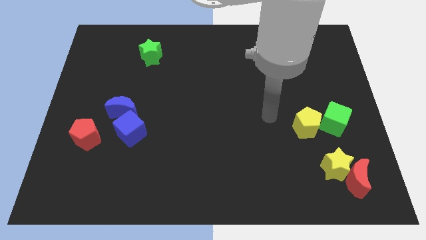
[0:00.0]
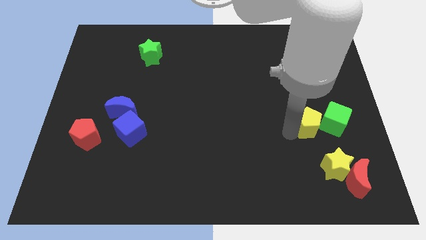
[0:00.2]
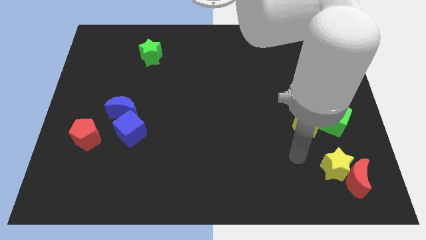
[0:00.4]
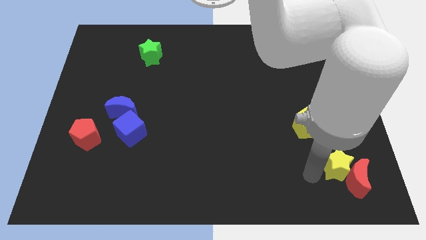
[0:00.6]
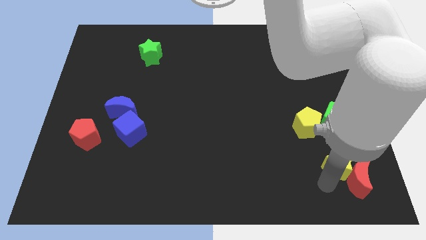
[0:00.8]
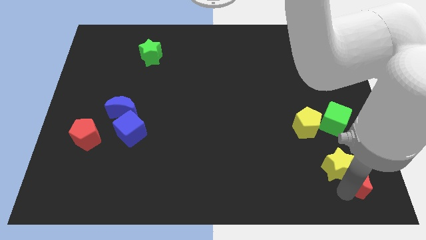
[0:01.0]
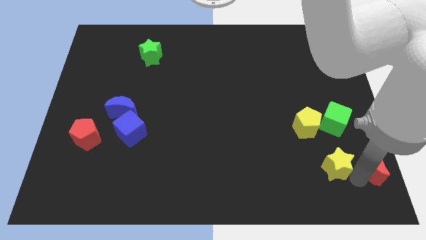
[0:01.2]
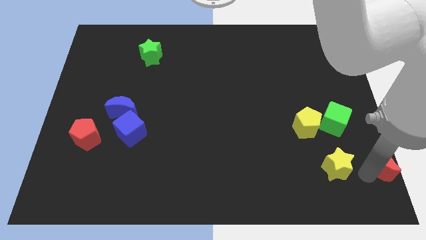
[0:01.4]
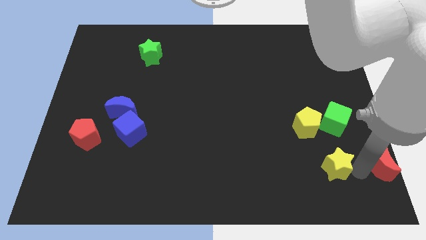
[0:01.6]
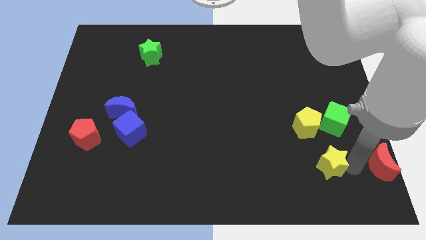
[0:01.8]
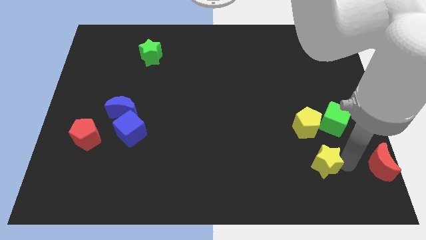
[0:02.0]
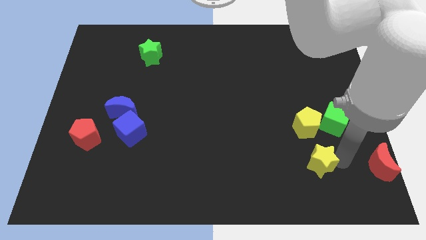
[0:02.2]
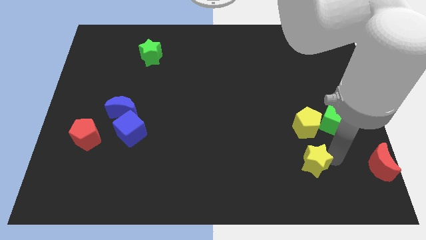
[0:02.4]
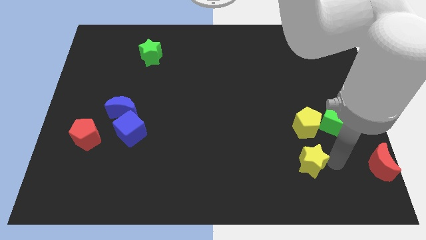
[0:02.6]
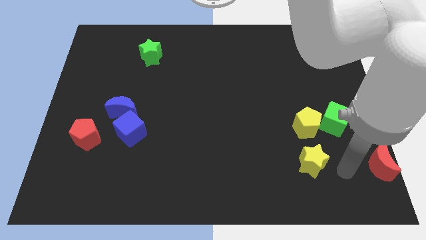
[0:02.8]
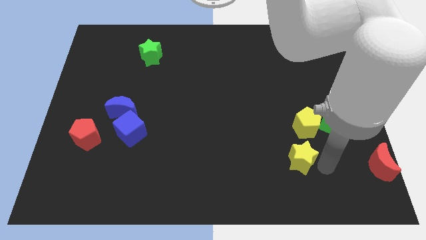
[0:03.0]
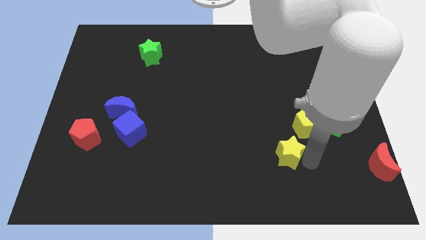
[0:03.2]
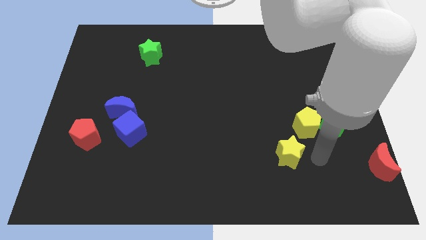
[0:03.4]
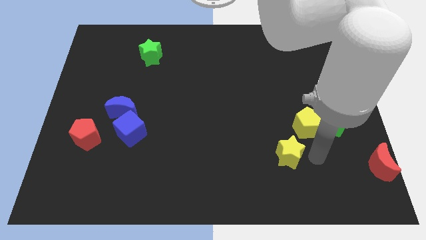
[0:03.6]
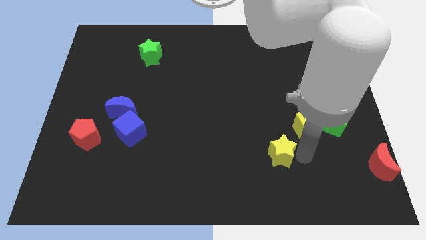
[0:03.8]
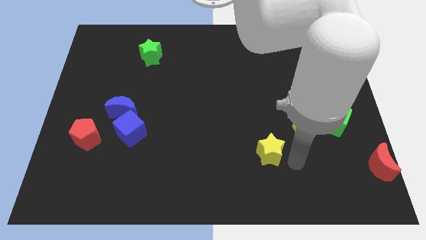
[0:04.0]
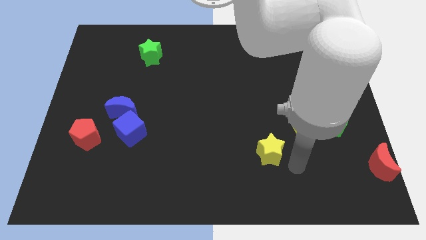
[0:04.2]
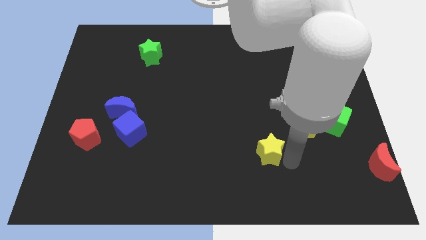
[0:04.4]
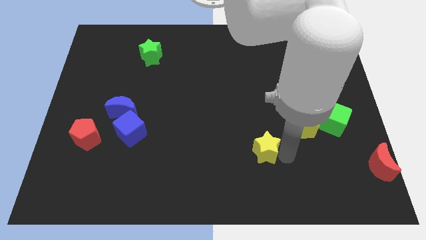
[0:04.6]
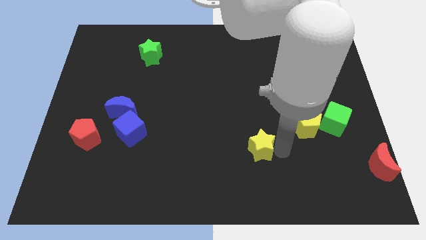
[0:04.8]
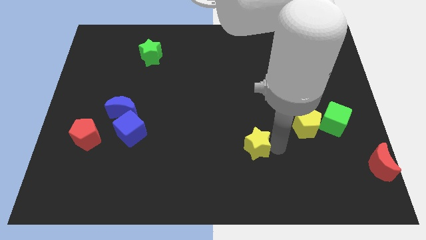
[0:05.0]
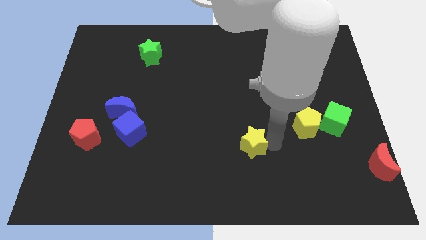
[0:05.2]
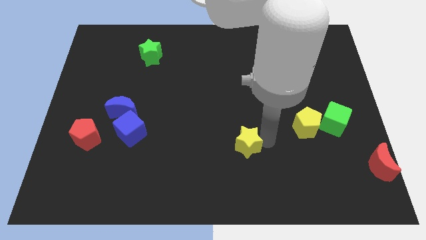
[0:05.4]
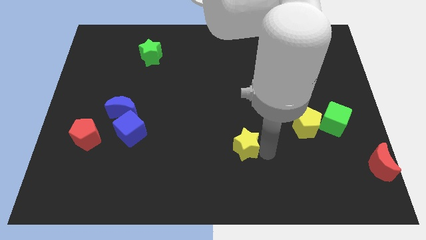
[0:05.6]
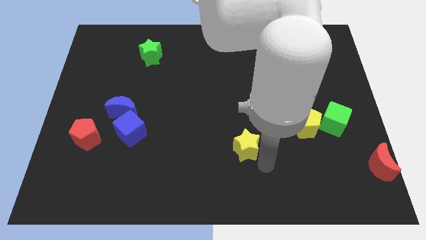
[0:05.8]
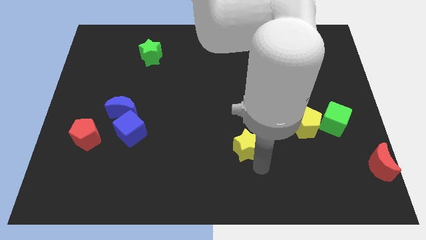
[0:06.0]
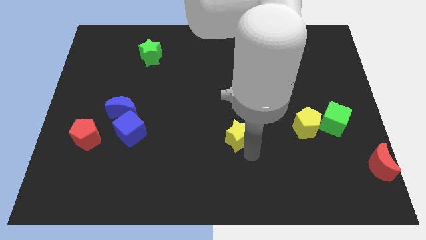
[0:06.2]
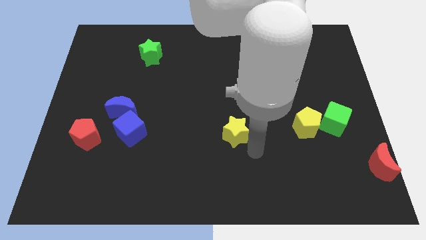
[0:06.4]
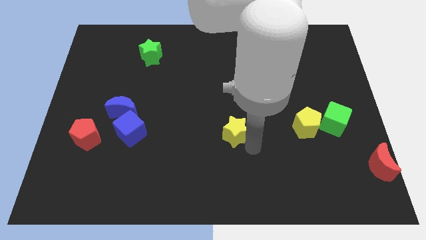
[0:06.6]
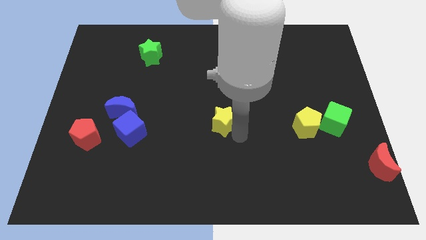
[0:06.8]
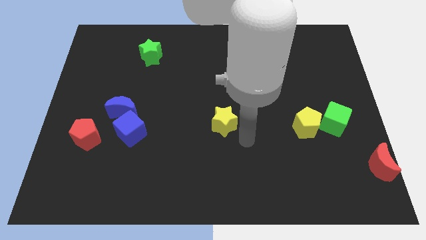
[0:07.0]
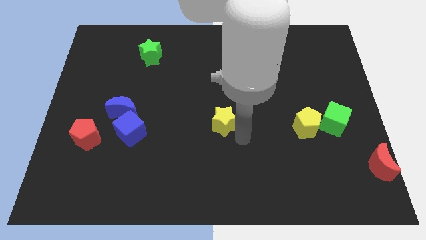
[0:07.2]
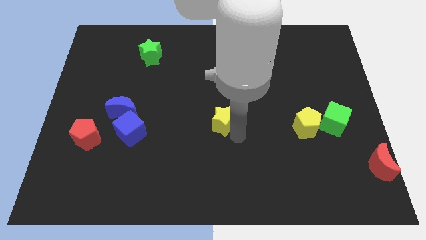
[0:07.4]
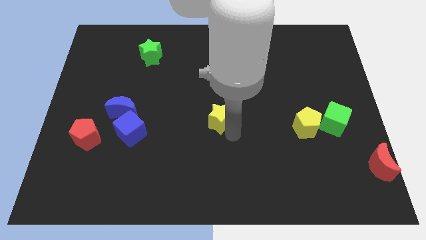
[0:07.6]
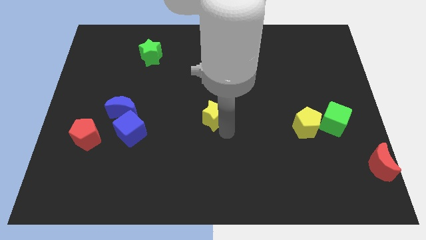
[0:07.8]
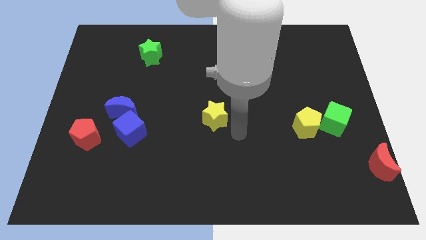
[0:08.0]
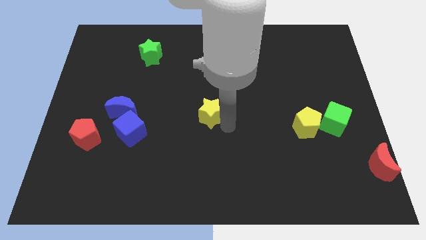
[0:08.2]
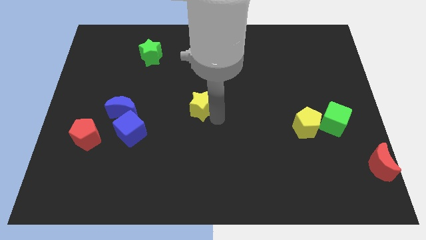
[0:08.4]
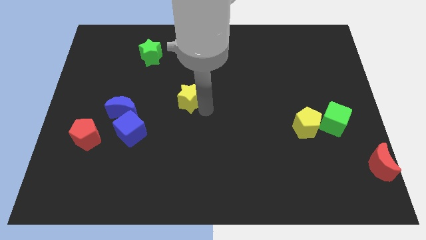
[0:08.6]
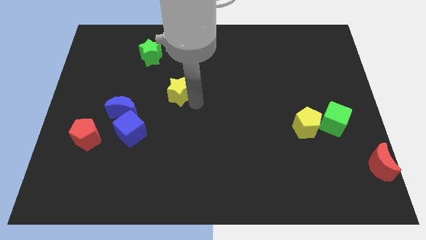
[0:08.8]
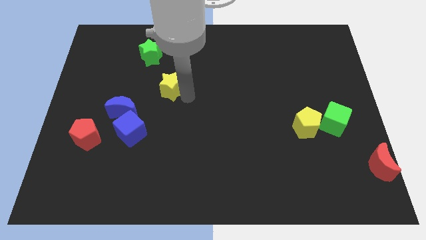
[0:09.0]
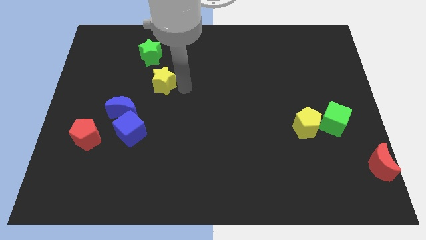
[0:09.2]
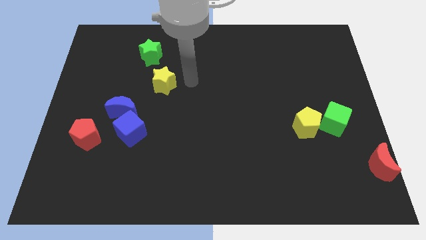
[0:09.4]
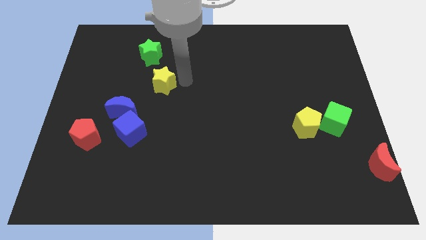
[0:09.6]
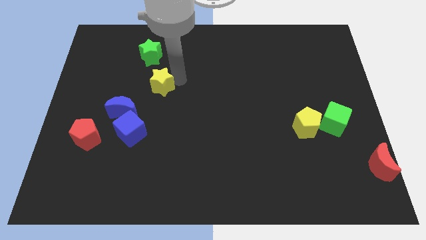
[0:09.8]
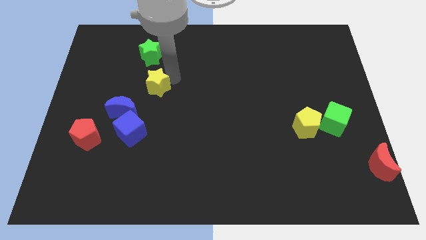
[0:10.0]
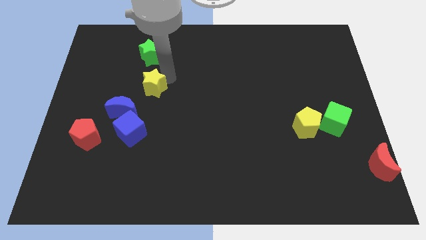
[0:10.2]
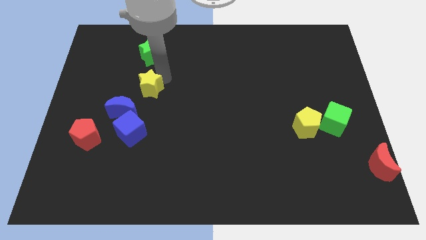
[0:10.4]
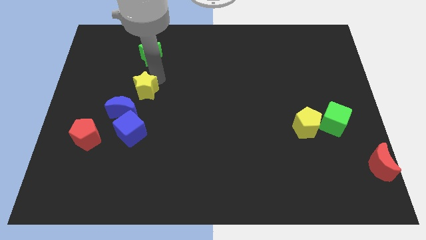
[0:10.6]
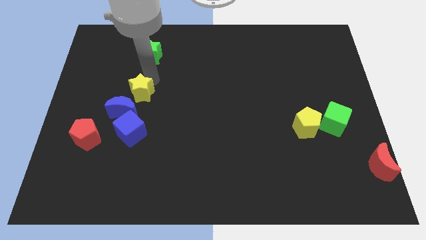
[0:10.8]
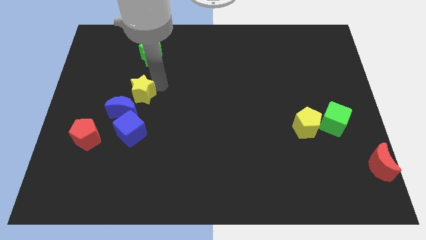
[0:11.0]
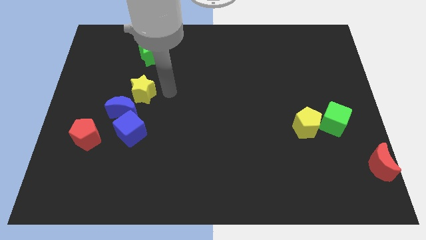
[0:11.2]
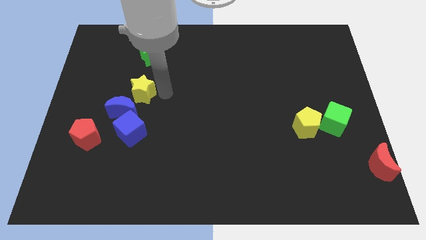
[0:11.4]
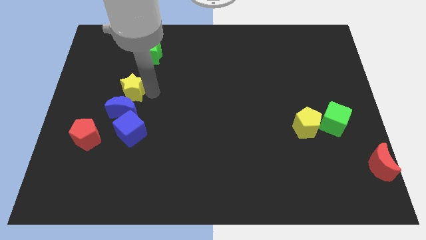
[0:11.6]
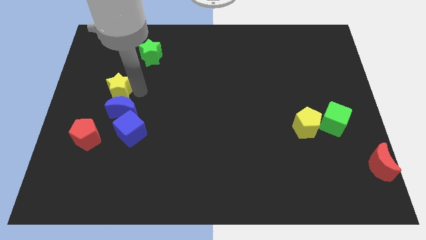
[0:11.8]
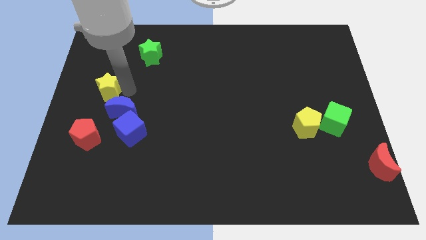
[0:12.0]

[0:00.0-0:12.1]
put the yellow star to the left side

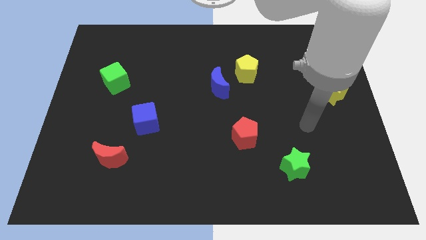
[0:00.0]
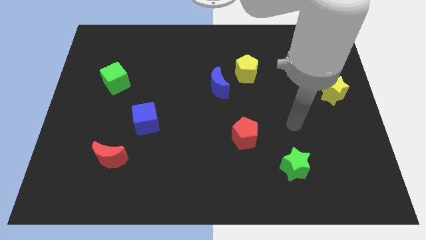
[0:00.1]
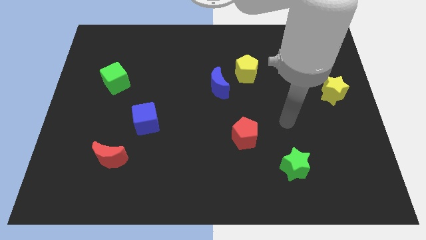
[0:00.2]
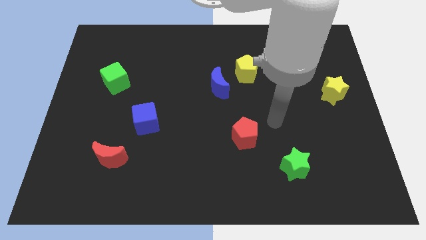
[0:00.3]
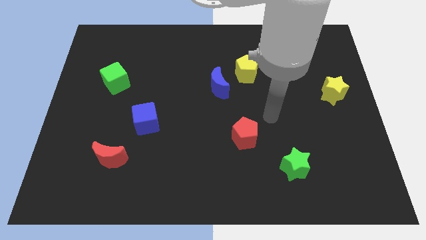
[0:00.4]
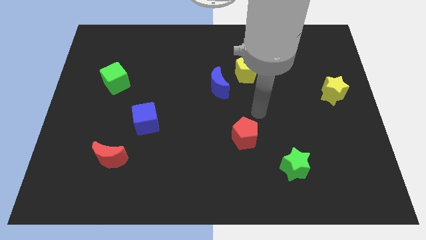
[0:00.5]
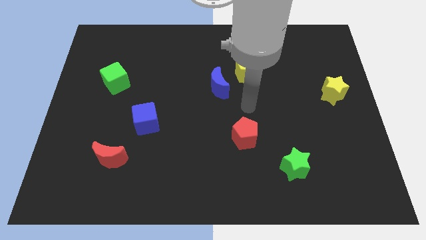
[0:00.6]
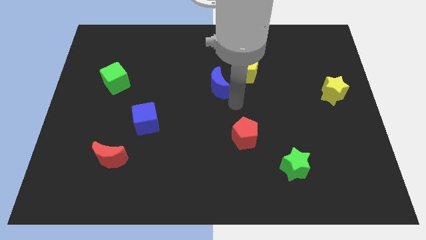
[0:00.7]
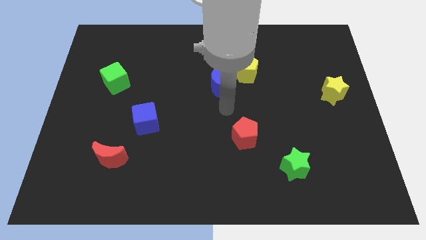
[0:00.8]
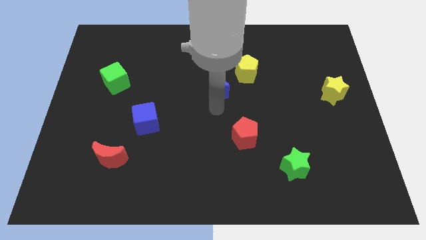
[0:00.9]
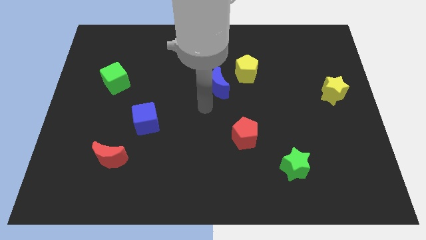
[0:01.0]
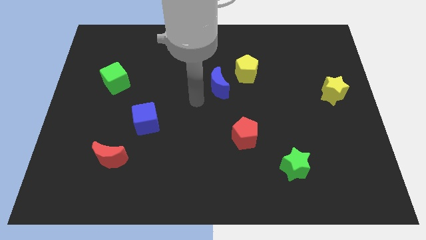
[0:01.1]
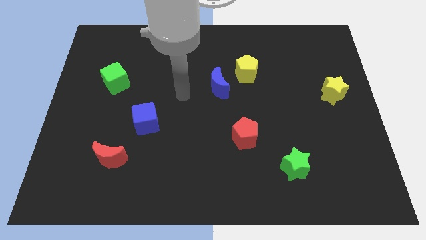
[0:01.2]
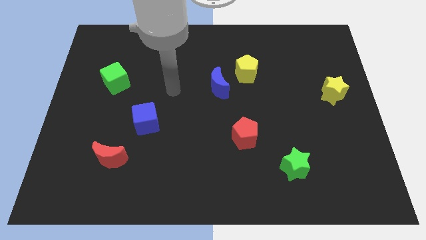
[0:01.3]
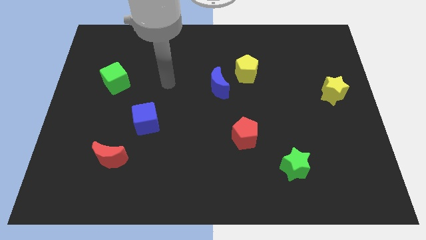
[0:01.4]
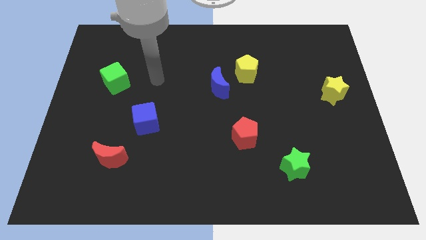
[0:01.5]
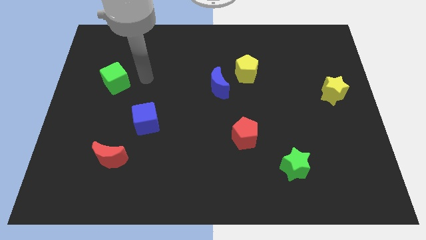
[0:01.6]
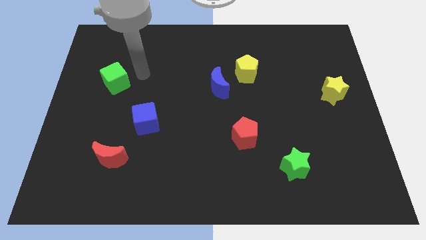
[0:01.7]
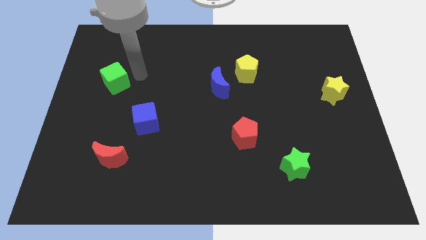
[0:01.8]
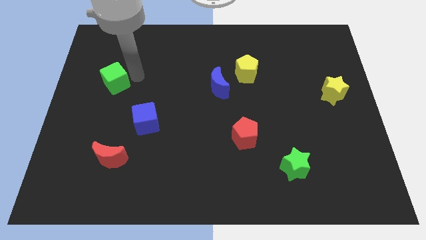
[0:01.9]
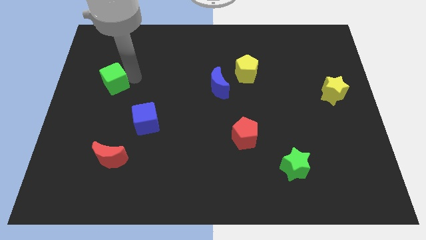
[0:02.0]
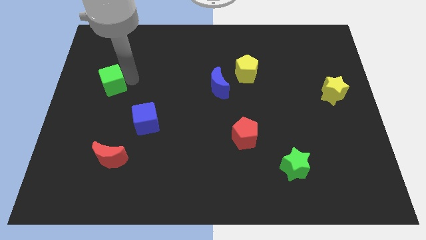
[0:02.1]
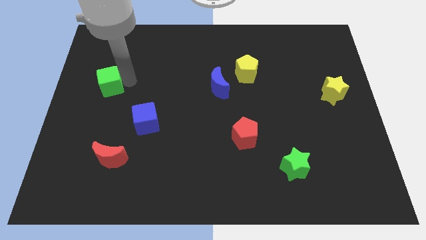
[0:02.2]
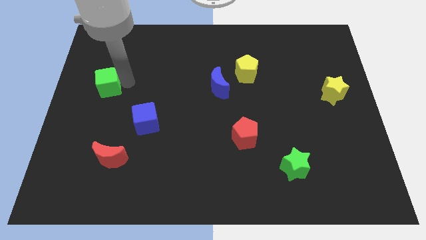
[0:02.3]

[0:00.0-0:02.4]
push the green cube to the left side
